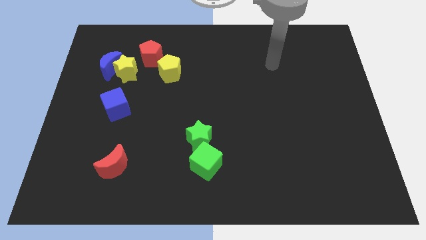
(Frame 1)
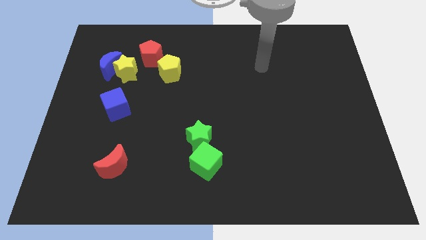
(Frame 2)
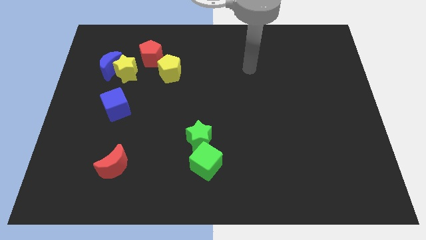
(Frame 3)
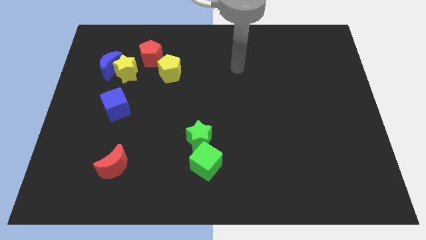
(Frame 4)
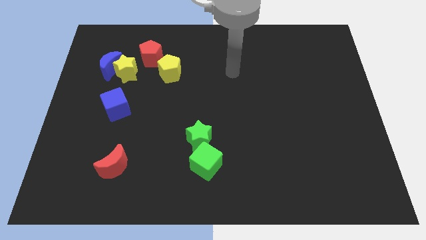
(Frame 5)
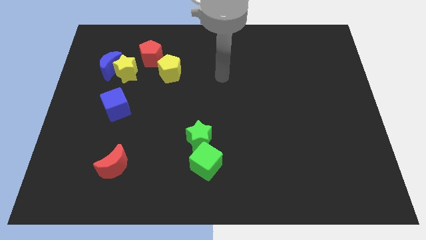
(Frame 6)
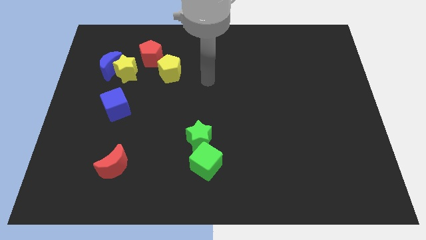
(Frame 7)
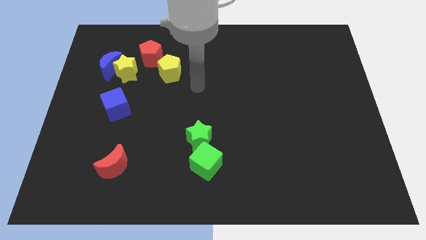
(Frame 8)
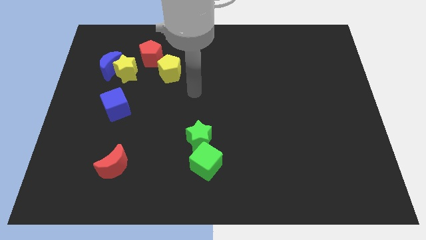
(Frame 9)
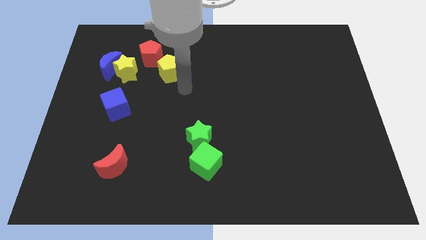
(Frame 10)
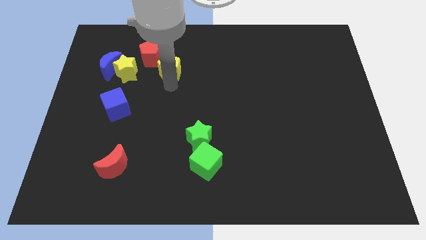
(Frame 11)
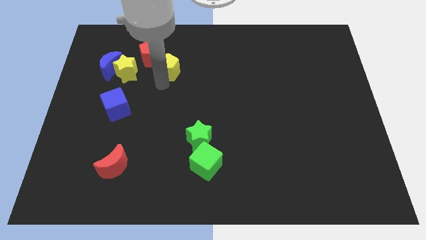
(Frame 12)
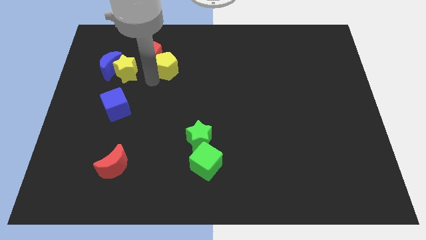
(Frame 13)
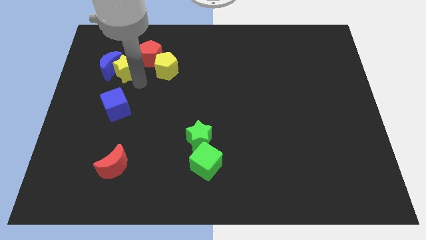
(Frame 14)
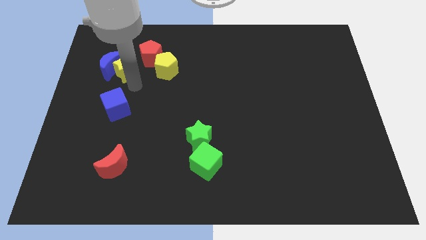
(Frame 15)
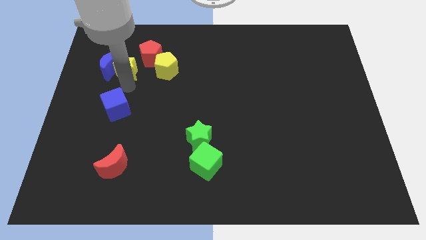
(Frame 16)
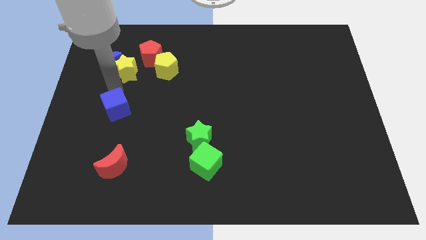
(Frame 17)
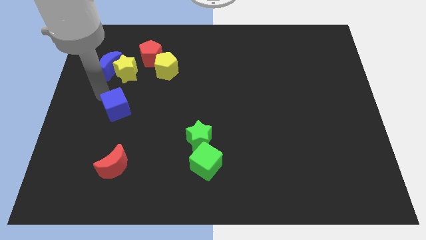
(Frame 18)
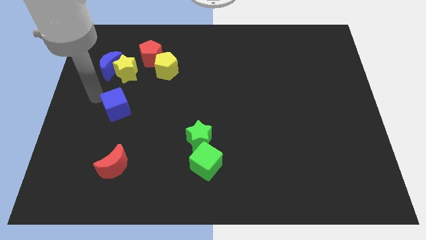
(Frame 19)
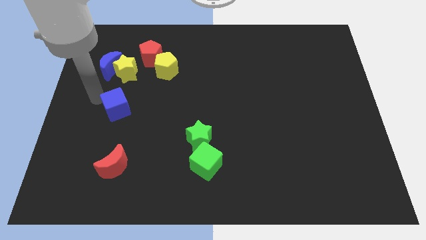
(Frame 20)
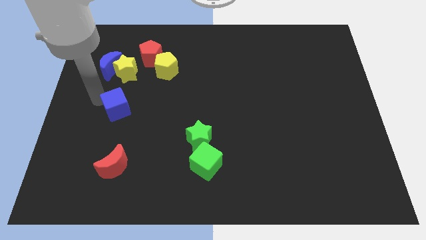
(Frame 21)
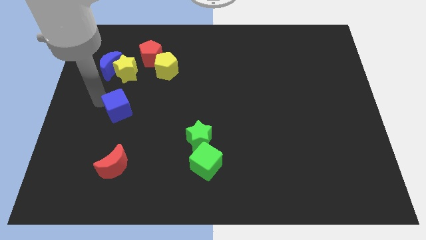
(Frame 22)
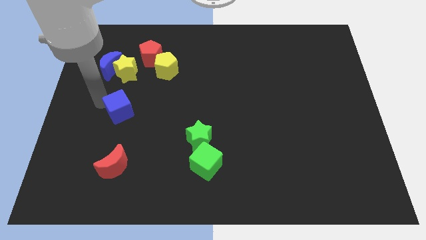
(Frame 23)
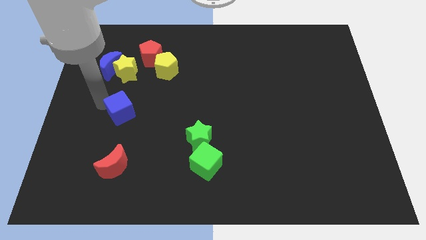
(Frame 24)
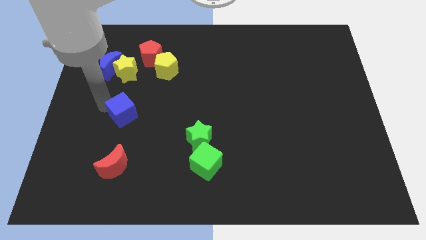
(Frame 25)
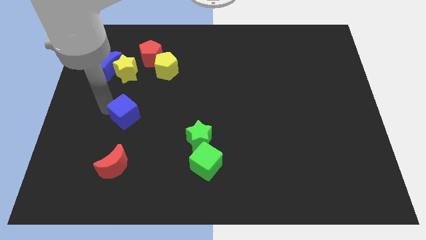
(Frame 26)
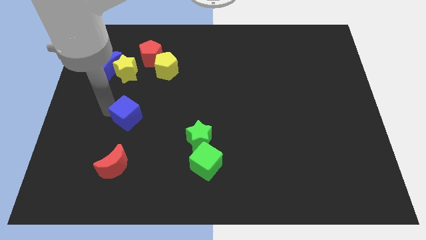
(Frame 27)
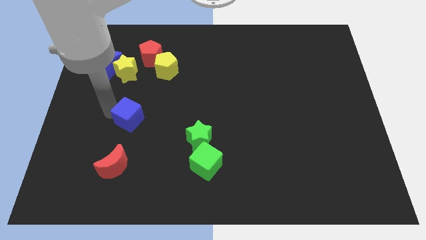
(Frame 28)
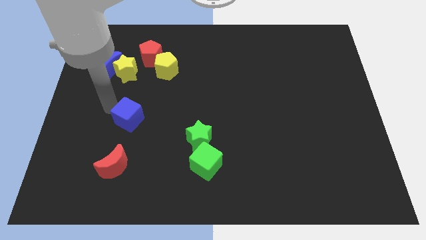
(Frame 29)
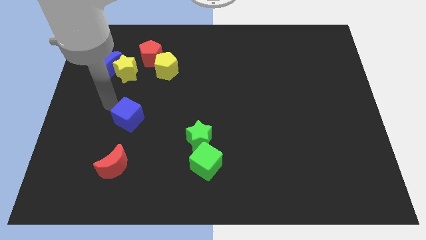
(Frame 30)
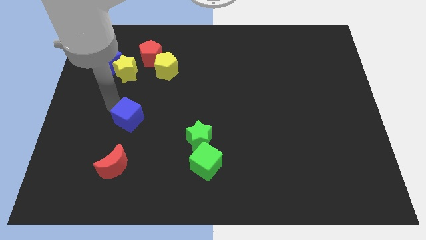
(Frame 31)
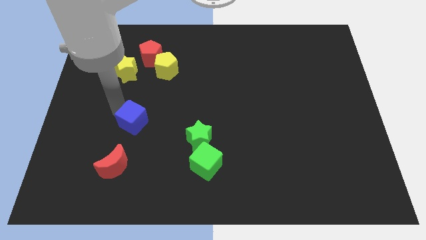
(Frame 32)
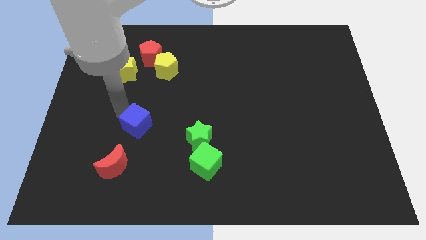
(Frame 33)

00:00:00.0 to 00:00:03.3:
slightly move the blue cube down and to the right

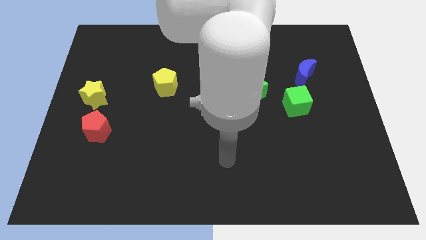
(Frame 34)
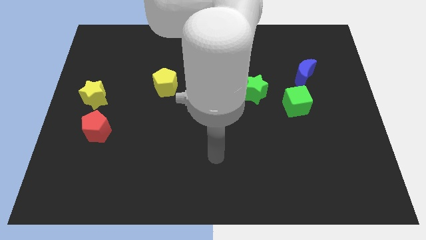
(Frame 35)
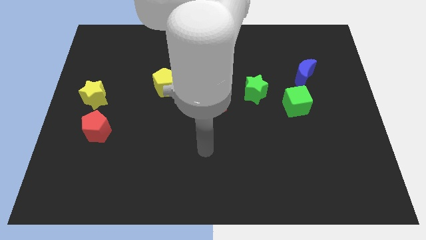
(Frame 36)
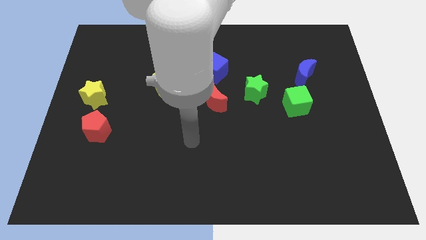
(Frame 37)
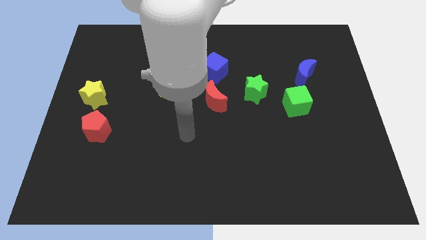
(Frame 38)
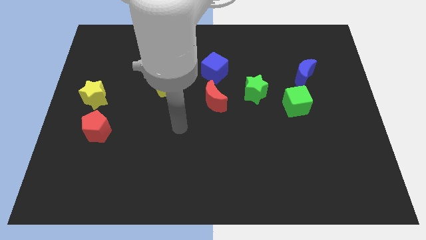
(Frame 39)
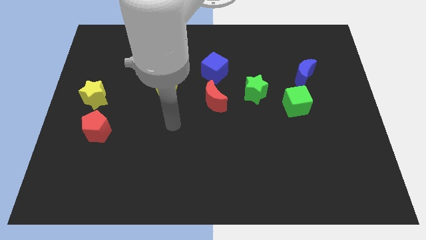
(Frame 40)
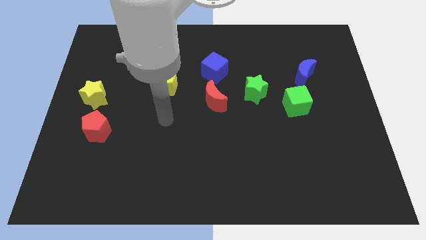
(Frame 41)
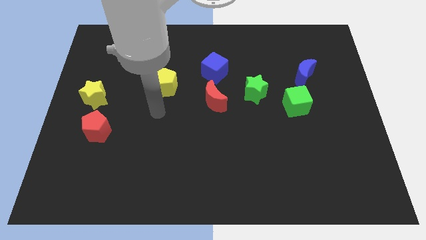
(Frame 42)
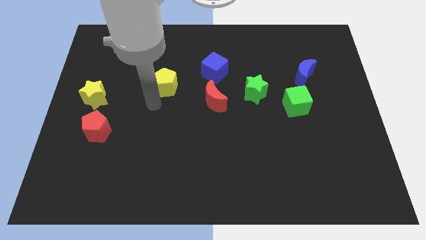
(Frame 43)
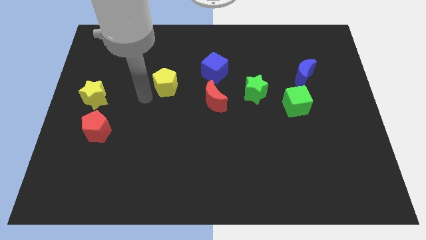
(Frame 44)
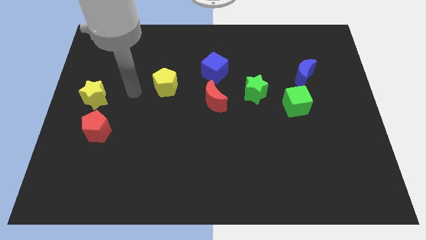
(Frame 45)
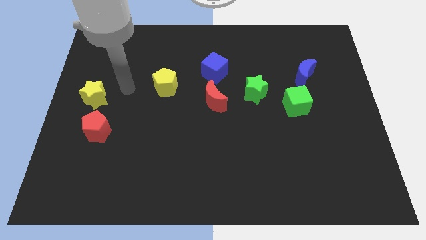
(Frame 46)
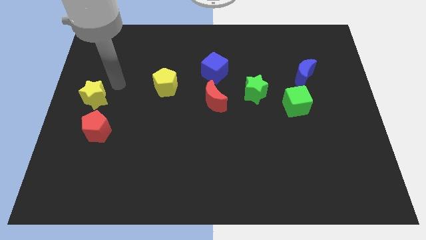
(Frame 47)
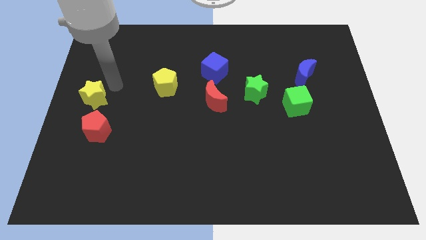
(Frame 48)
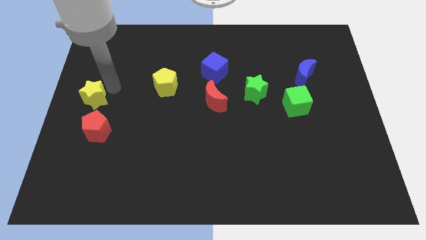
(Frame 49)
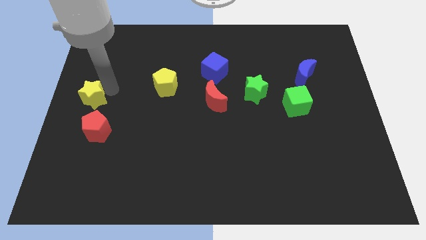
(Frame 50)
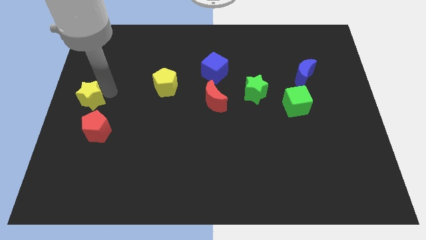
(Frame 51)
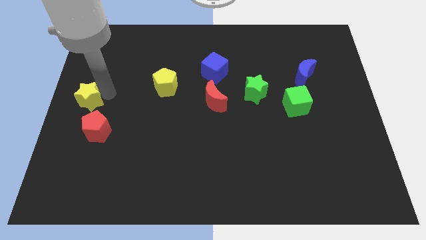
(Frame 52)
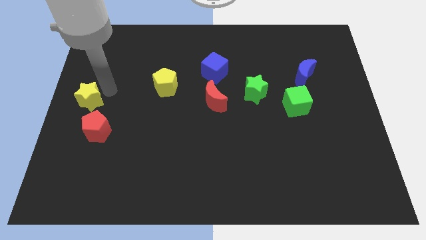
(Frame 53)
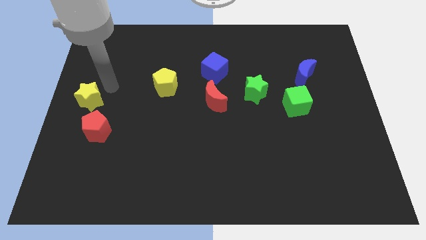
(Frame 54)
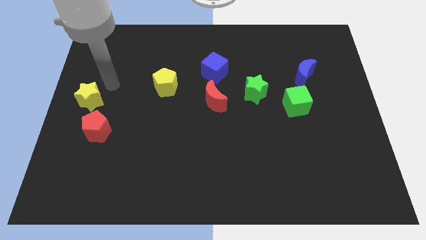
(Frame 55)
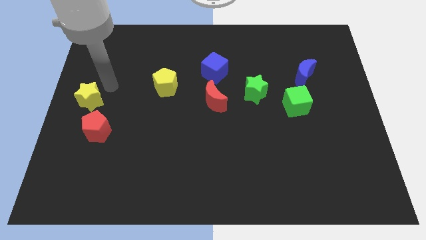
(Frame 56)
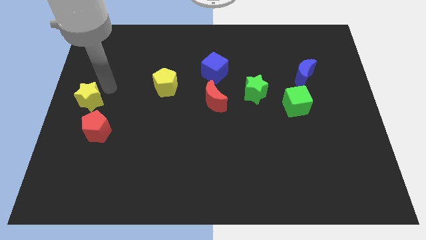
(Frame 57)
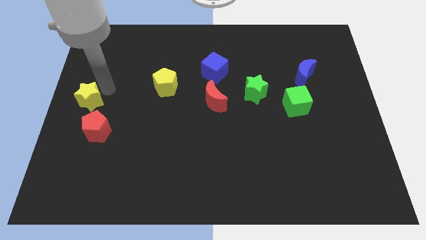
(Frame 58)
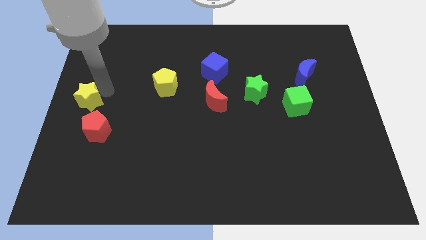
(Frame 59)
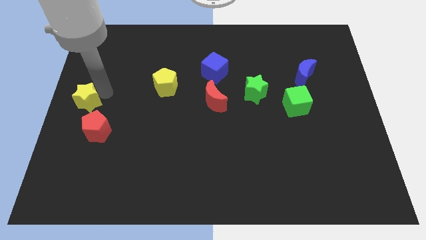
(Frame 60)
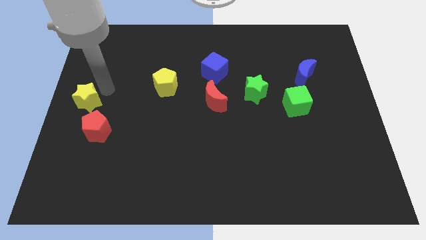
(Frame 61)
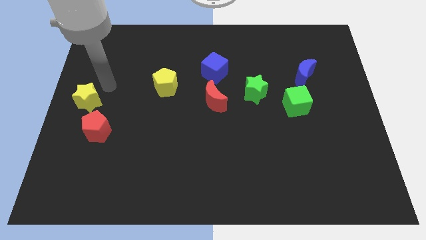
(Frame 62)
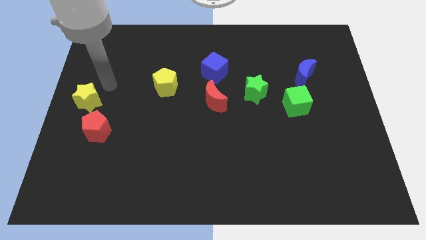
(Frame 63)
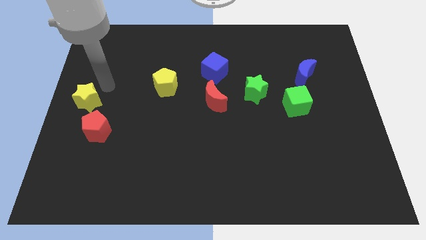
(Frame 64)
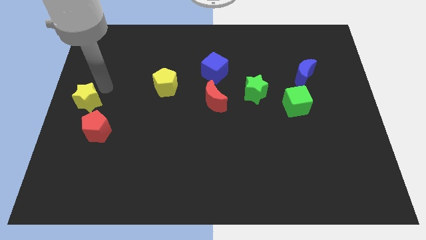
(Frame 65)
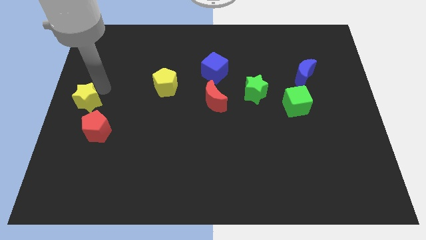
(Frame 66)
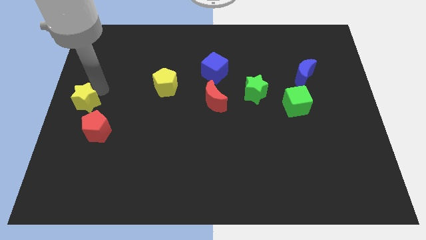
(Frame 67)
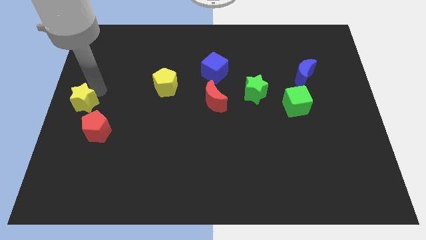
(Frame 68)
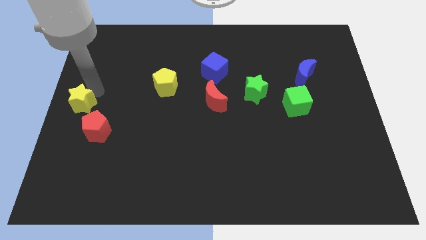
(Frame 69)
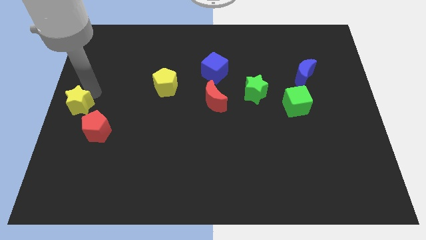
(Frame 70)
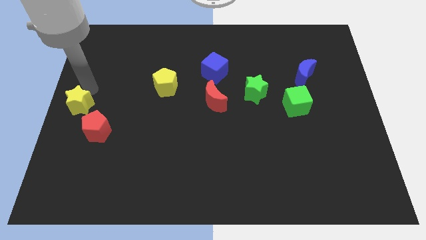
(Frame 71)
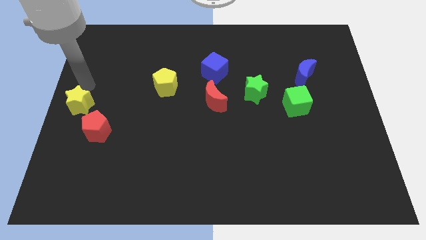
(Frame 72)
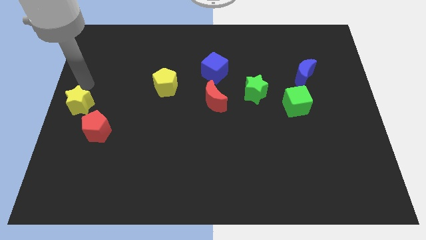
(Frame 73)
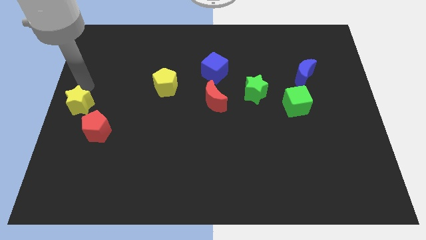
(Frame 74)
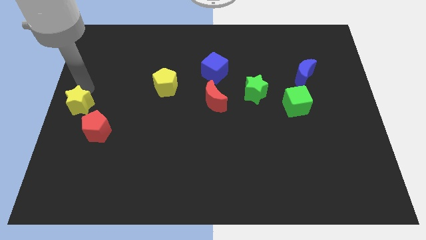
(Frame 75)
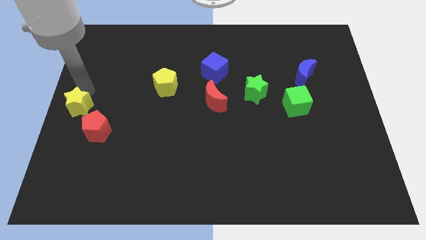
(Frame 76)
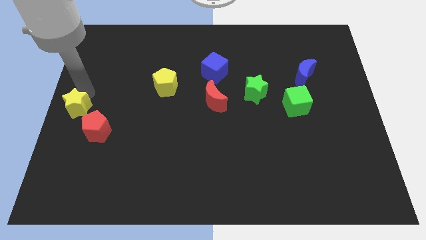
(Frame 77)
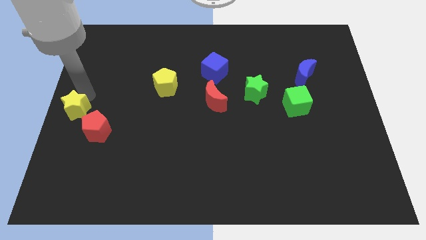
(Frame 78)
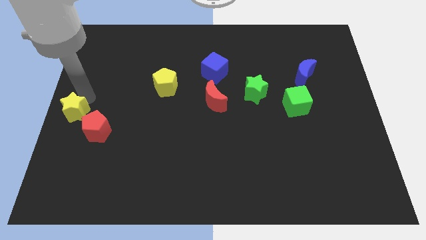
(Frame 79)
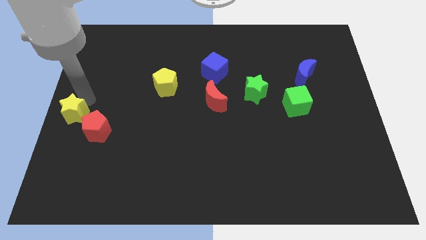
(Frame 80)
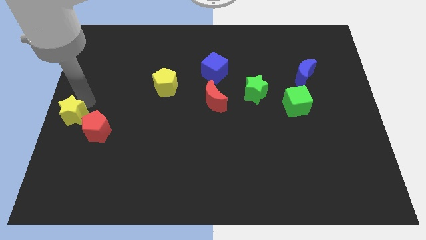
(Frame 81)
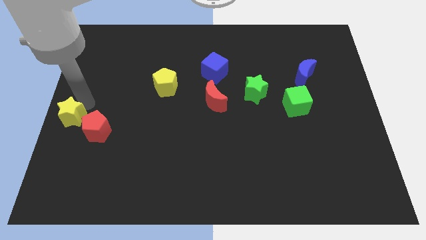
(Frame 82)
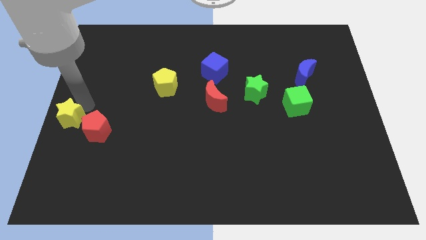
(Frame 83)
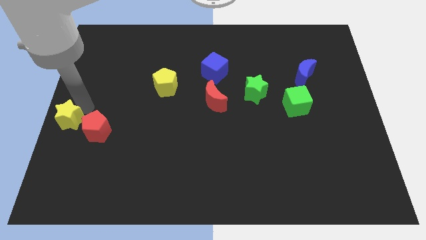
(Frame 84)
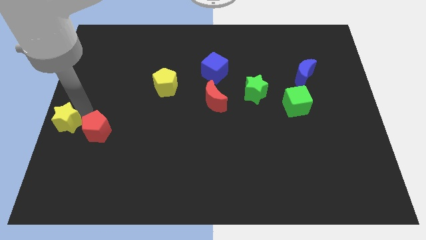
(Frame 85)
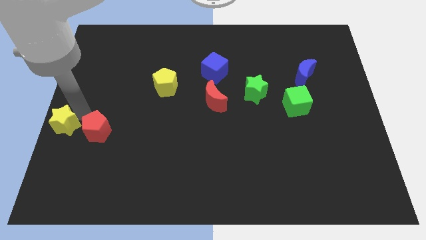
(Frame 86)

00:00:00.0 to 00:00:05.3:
move the yellow star down a little bit

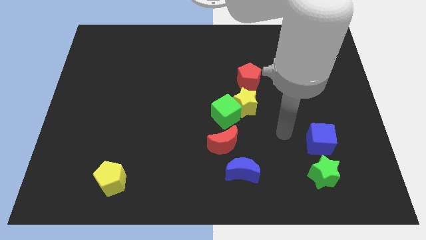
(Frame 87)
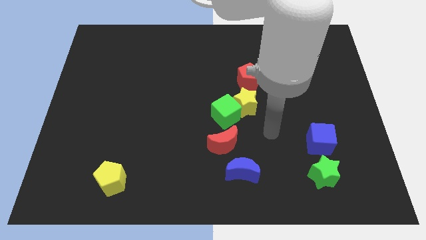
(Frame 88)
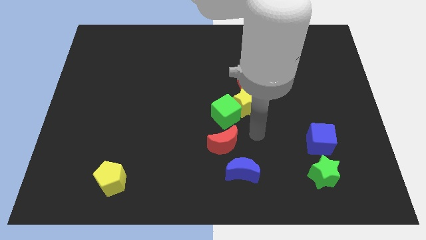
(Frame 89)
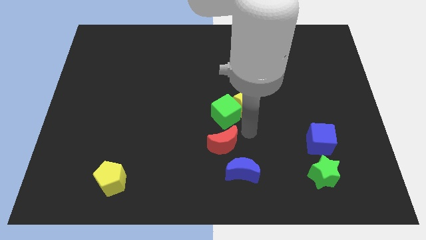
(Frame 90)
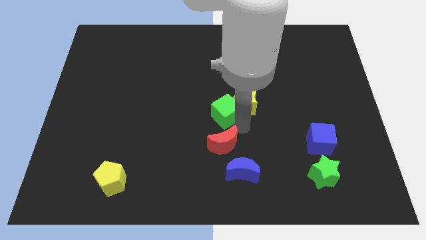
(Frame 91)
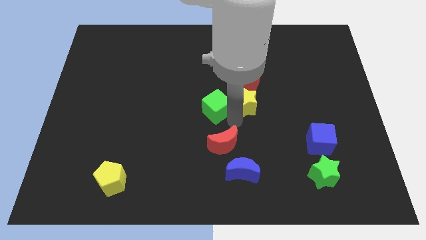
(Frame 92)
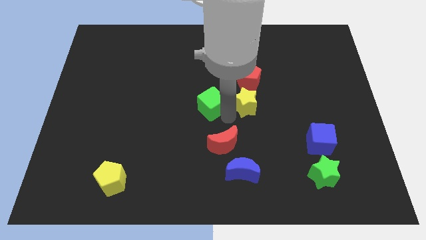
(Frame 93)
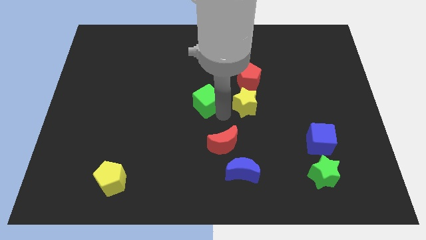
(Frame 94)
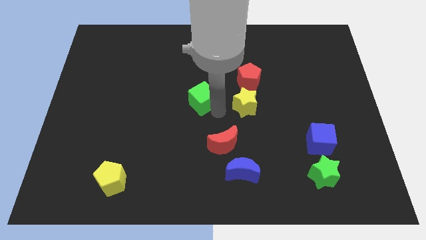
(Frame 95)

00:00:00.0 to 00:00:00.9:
slightly slide the green cube upwards and then left
